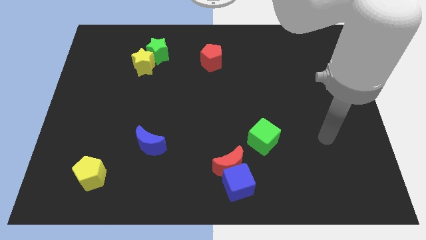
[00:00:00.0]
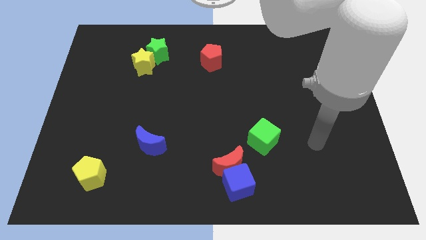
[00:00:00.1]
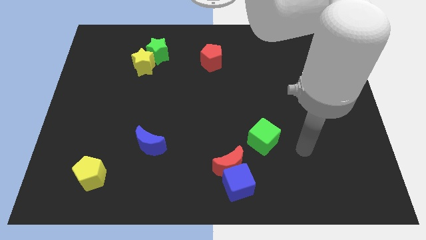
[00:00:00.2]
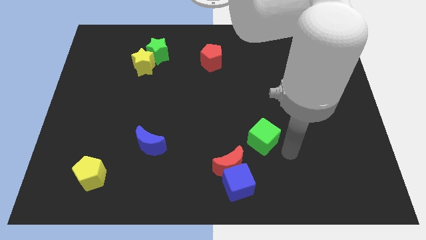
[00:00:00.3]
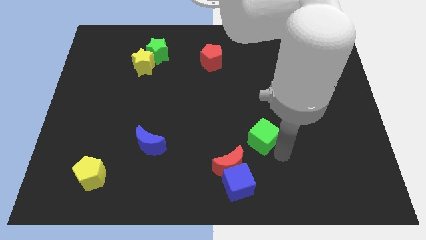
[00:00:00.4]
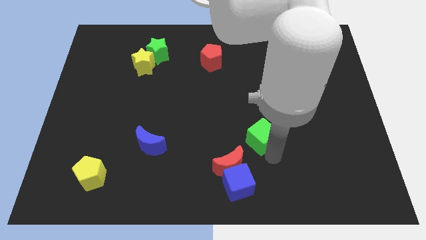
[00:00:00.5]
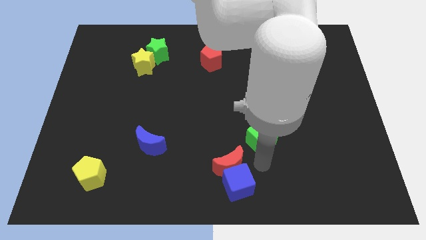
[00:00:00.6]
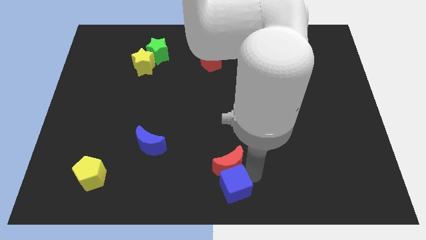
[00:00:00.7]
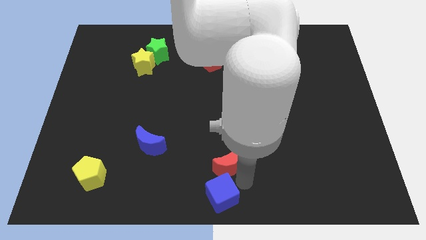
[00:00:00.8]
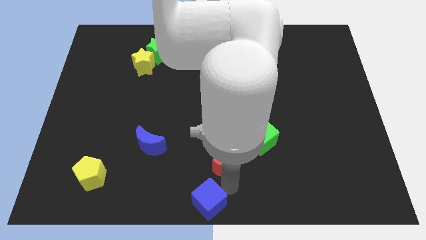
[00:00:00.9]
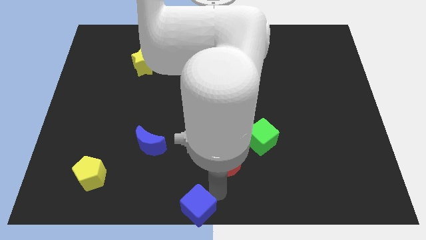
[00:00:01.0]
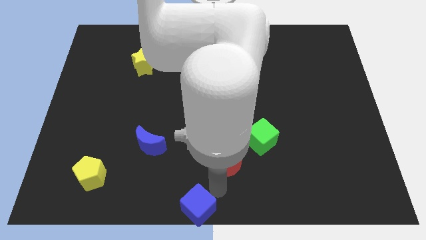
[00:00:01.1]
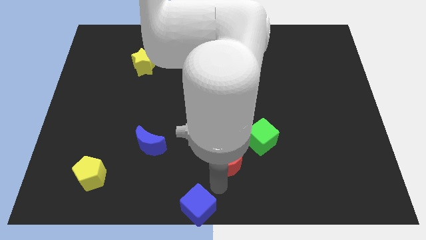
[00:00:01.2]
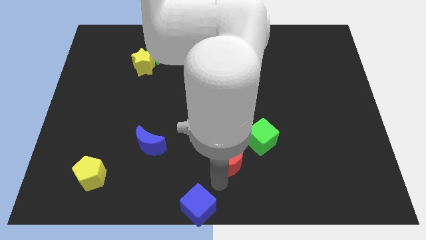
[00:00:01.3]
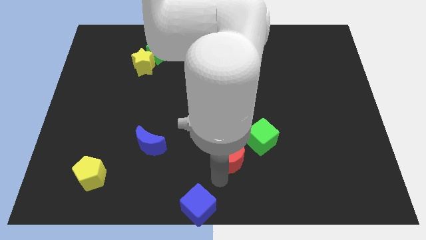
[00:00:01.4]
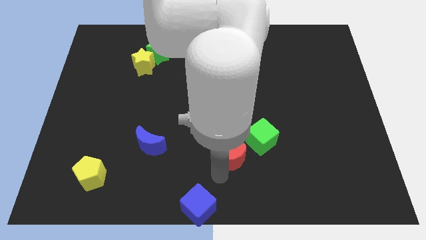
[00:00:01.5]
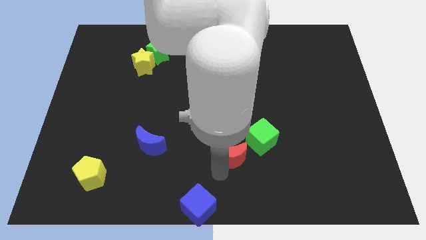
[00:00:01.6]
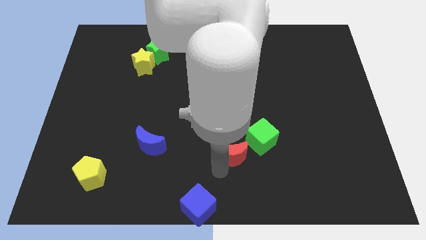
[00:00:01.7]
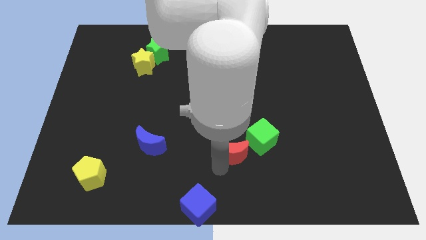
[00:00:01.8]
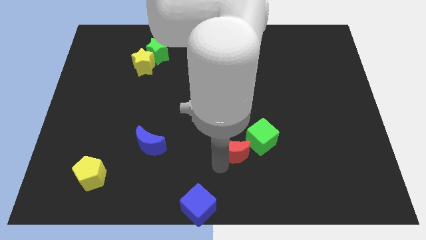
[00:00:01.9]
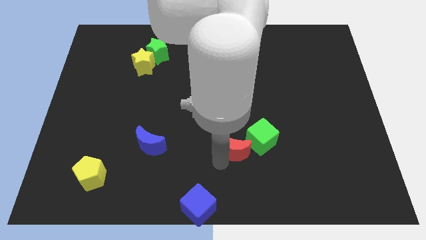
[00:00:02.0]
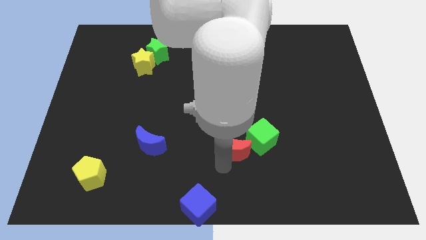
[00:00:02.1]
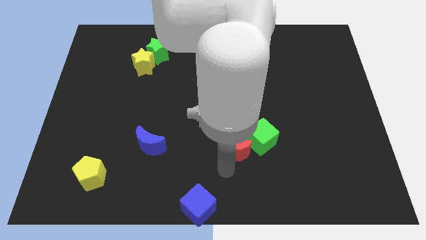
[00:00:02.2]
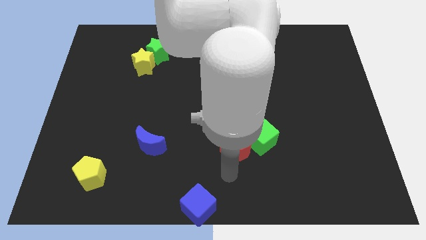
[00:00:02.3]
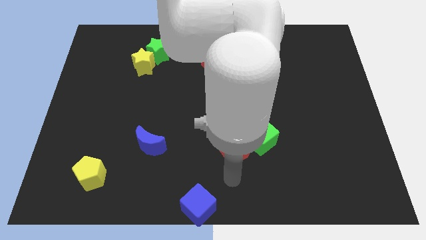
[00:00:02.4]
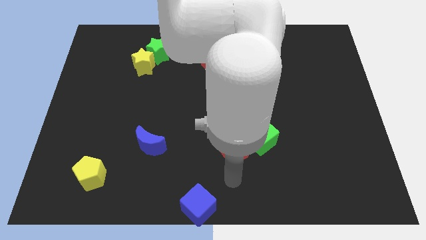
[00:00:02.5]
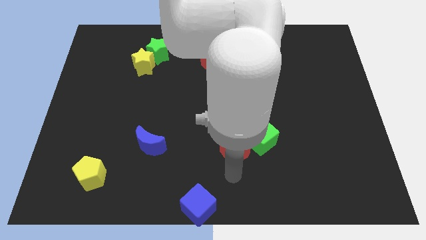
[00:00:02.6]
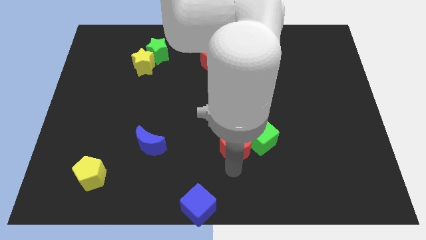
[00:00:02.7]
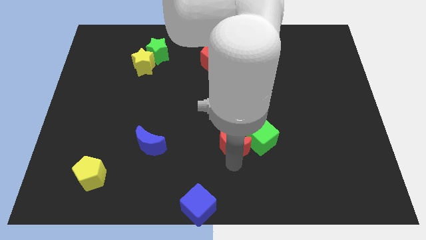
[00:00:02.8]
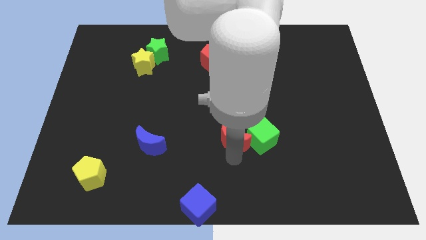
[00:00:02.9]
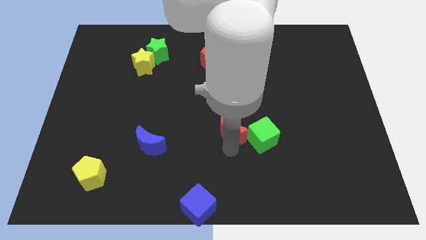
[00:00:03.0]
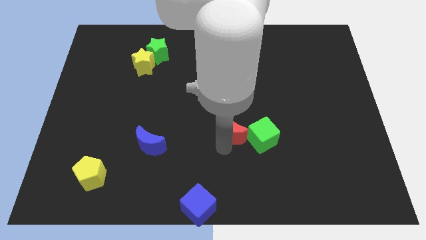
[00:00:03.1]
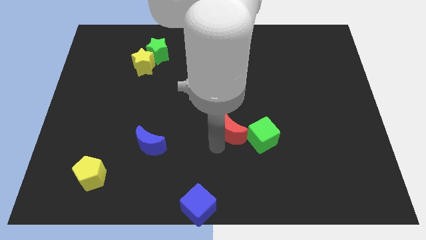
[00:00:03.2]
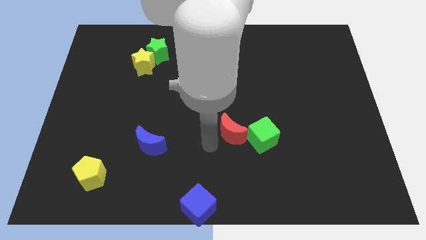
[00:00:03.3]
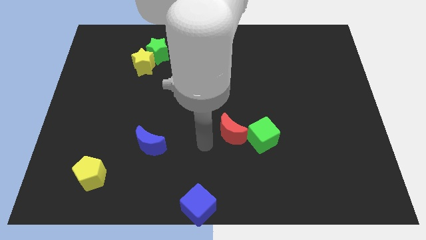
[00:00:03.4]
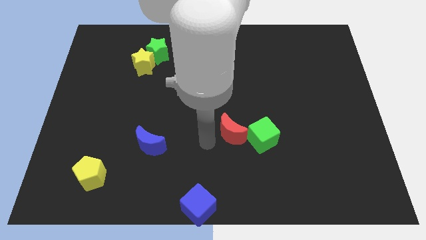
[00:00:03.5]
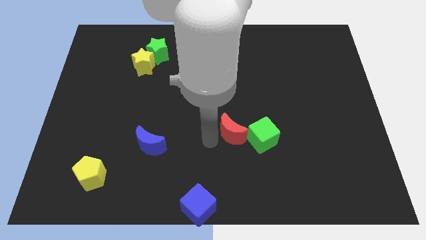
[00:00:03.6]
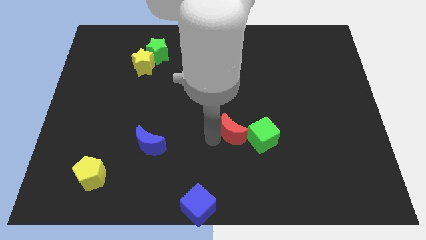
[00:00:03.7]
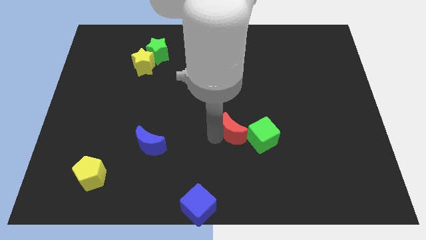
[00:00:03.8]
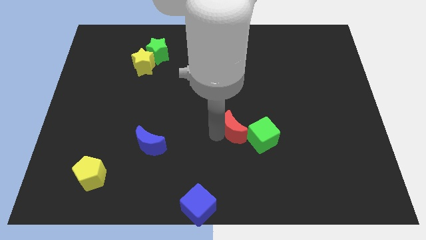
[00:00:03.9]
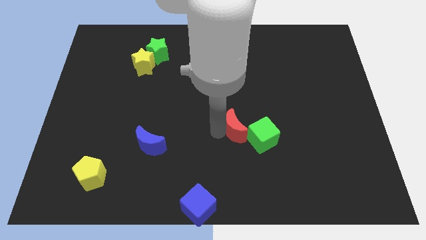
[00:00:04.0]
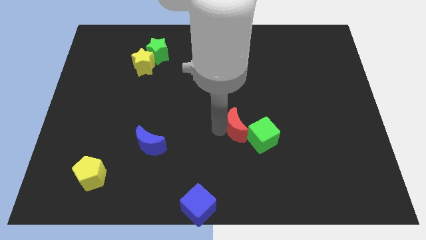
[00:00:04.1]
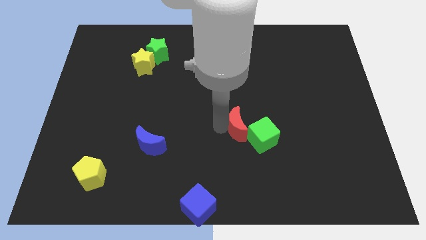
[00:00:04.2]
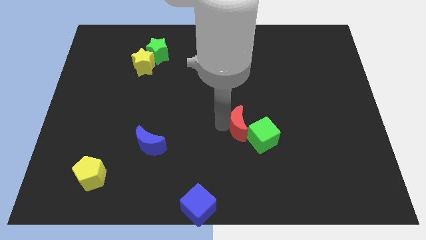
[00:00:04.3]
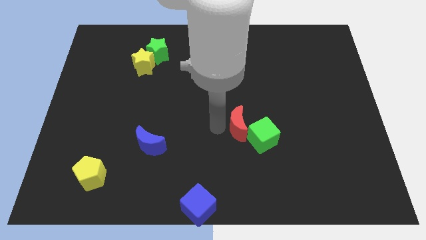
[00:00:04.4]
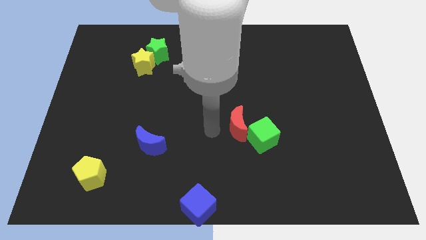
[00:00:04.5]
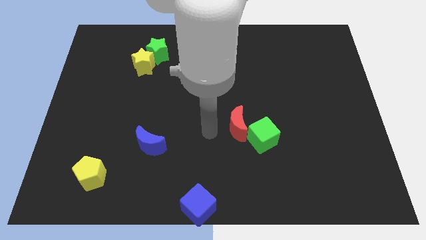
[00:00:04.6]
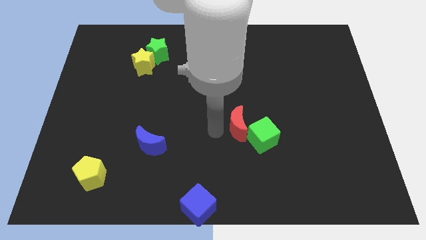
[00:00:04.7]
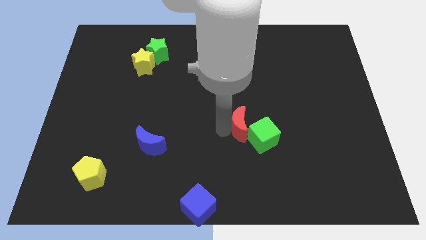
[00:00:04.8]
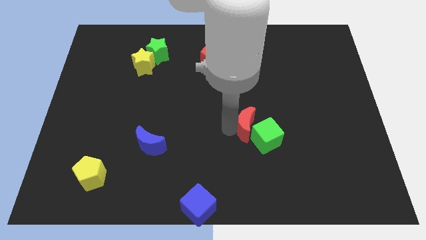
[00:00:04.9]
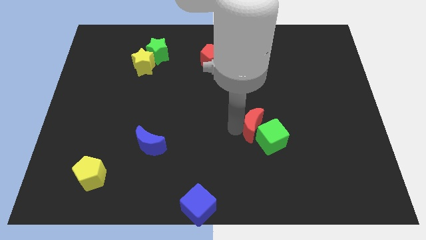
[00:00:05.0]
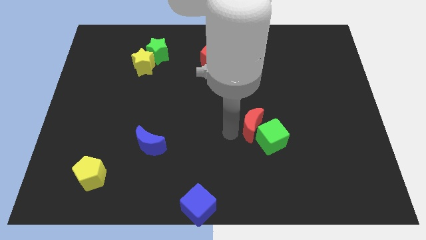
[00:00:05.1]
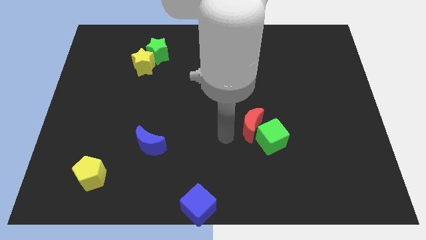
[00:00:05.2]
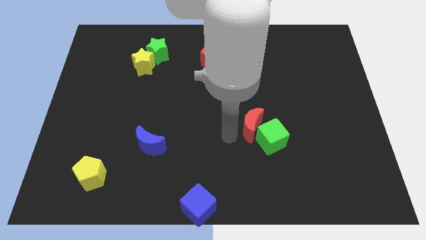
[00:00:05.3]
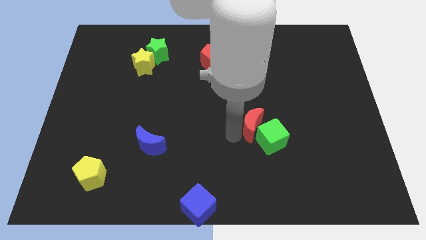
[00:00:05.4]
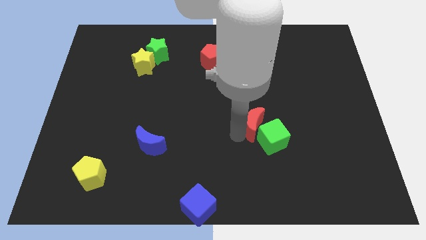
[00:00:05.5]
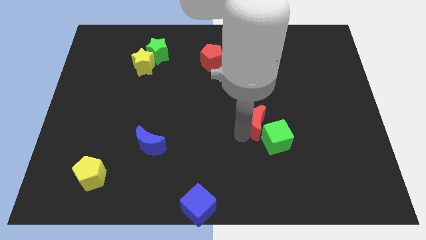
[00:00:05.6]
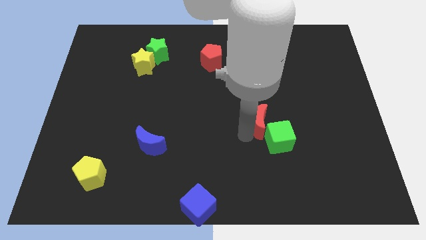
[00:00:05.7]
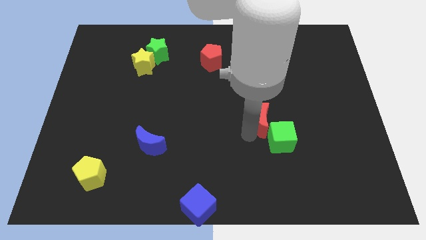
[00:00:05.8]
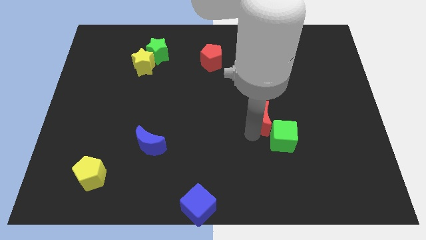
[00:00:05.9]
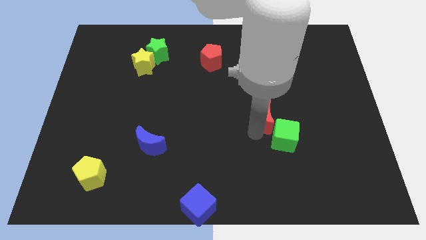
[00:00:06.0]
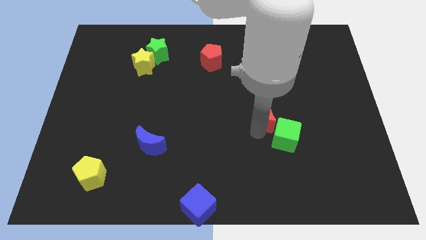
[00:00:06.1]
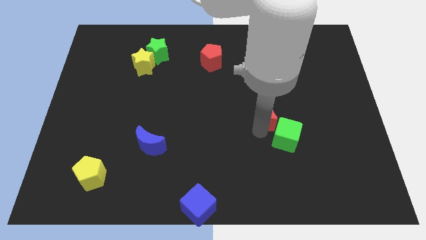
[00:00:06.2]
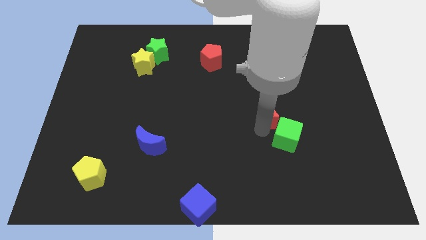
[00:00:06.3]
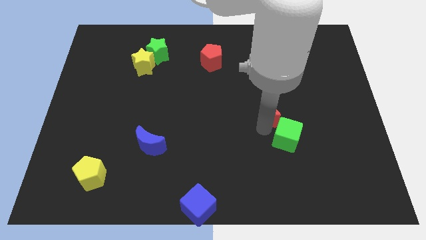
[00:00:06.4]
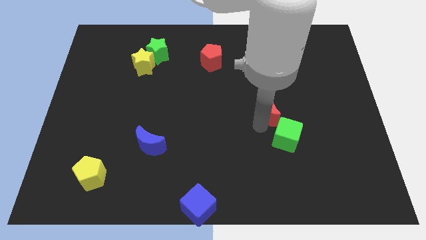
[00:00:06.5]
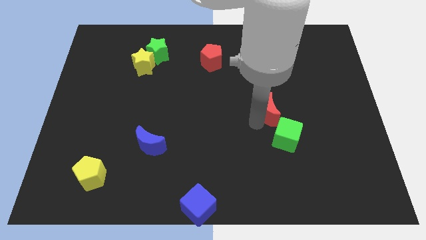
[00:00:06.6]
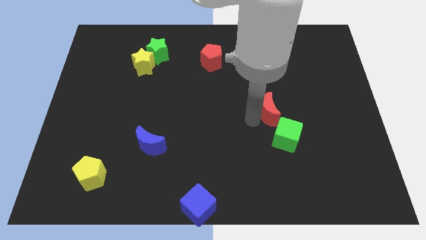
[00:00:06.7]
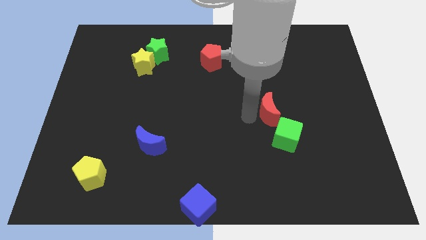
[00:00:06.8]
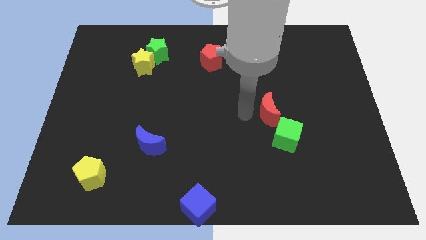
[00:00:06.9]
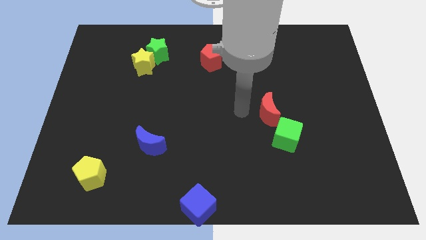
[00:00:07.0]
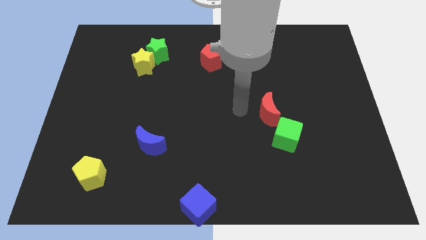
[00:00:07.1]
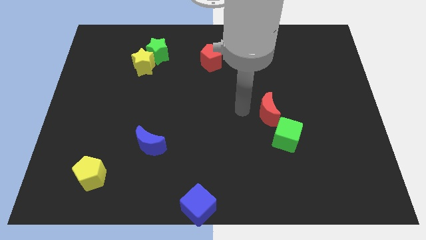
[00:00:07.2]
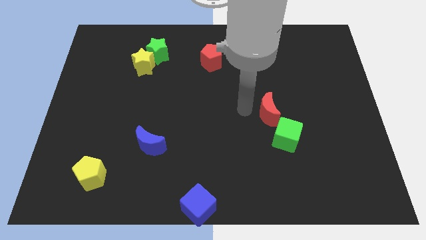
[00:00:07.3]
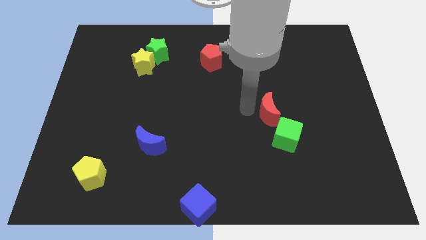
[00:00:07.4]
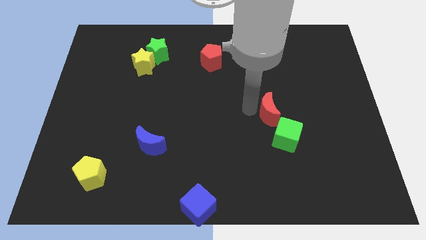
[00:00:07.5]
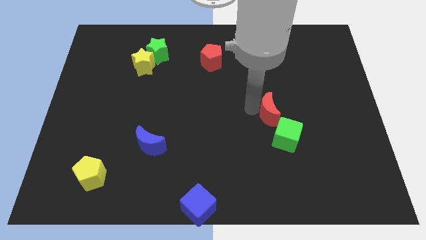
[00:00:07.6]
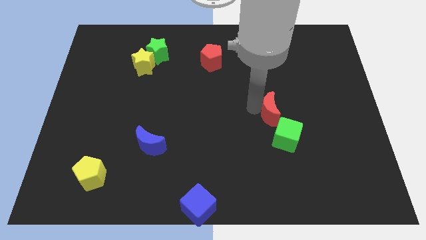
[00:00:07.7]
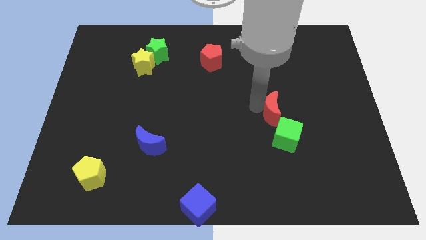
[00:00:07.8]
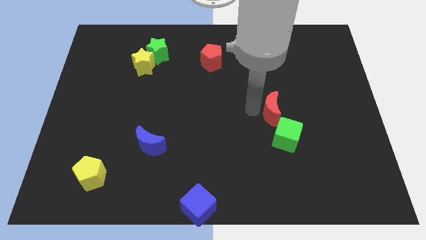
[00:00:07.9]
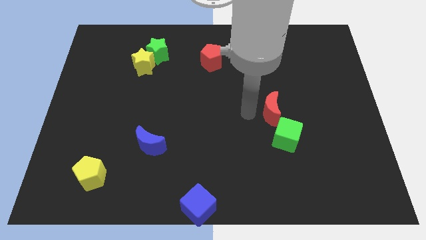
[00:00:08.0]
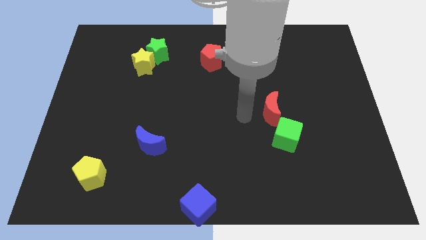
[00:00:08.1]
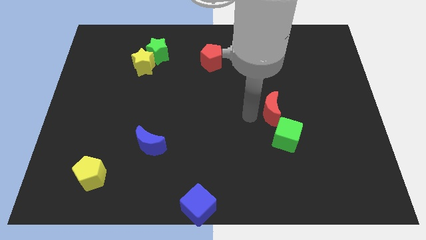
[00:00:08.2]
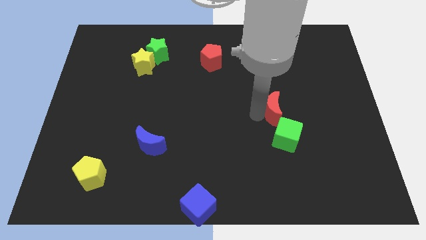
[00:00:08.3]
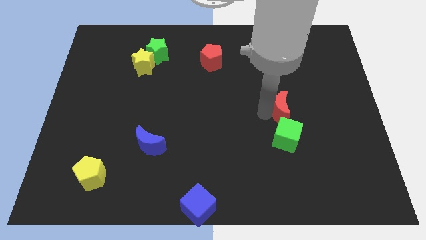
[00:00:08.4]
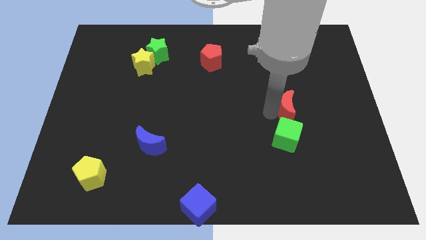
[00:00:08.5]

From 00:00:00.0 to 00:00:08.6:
push the red moon upwards and to the right
